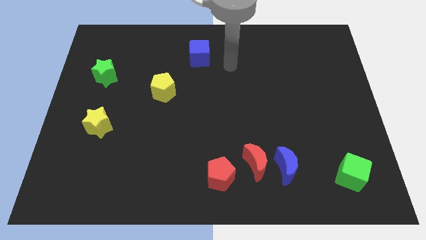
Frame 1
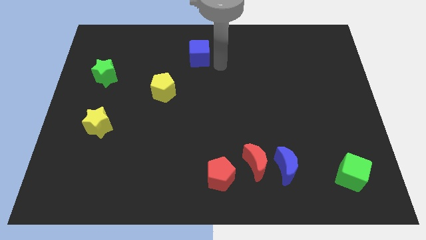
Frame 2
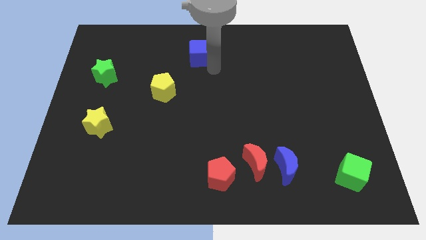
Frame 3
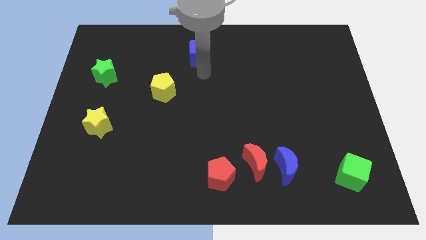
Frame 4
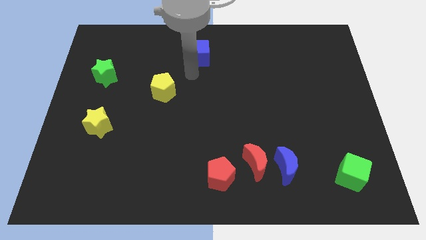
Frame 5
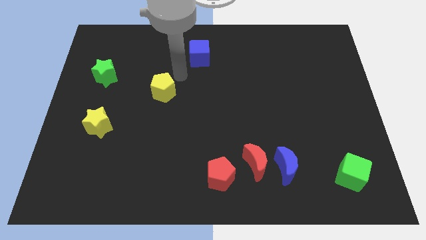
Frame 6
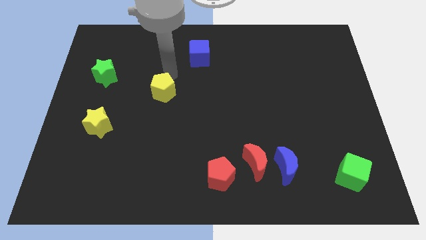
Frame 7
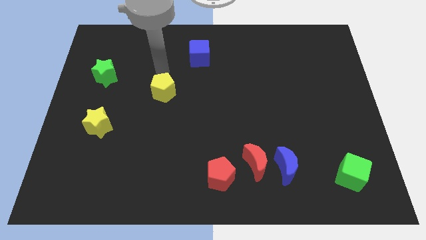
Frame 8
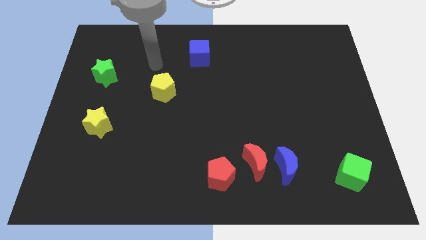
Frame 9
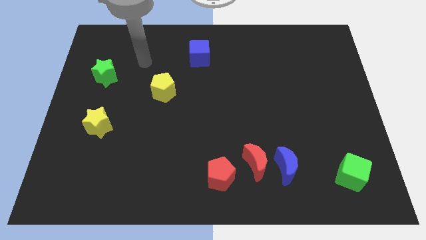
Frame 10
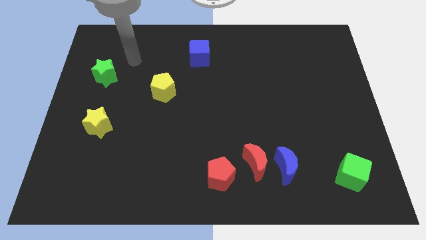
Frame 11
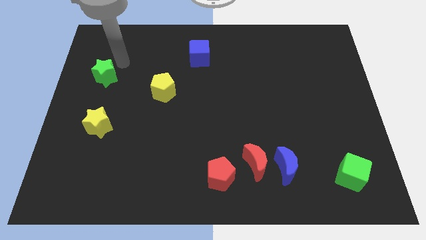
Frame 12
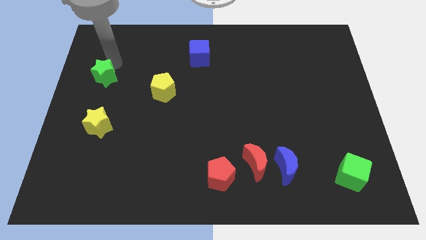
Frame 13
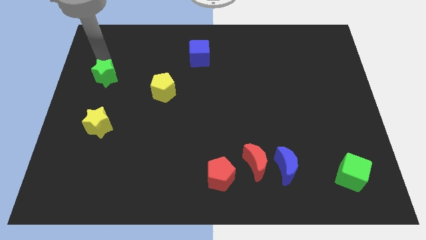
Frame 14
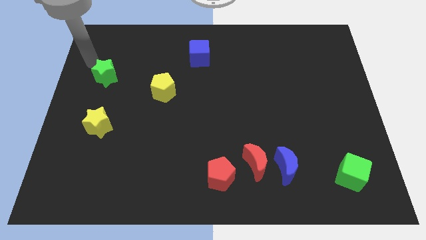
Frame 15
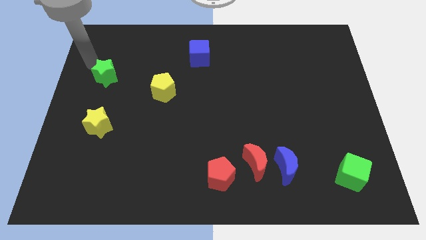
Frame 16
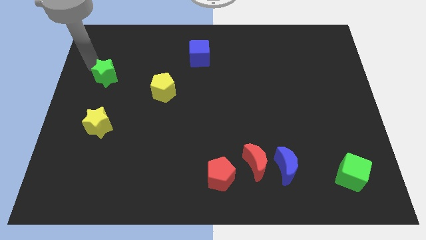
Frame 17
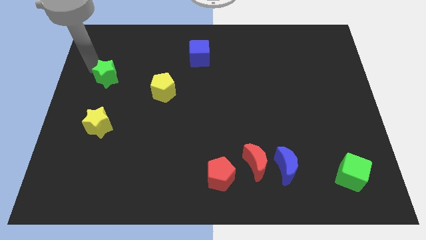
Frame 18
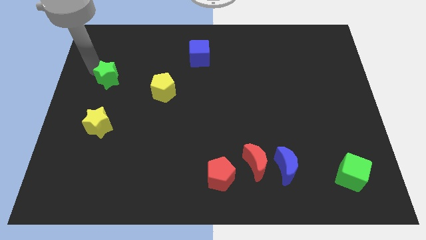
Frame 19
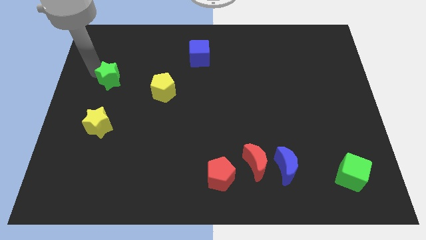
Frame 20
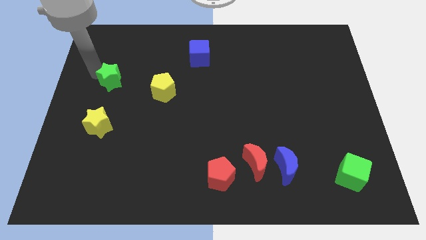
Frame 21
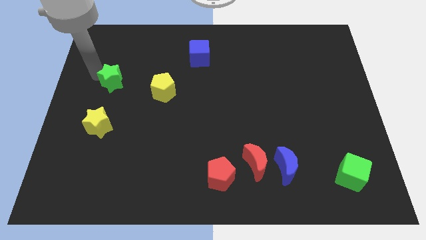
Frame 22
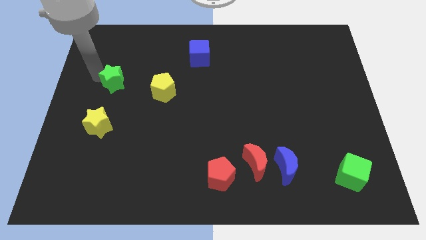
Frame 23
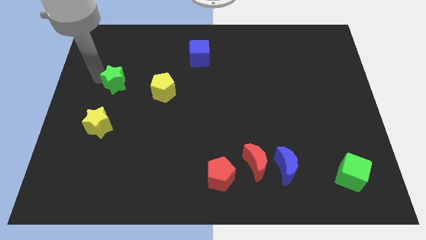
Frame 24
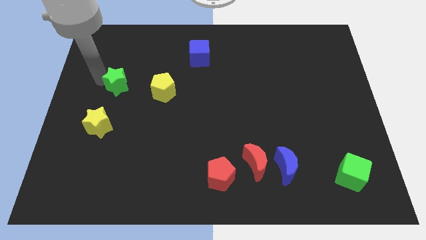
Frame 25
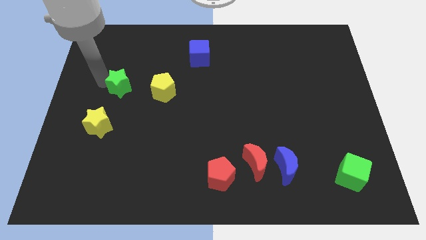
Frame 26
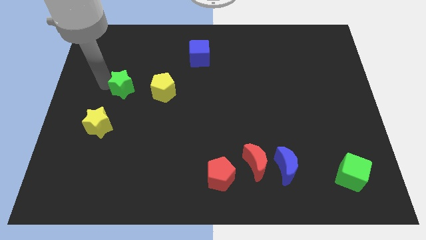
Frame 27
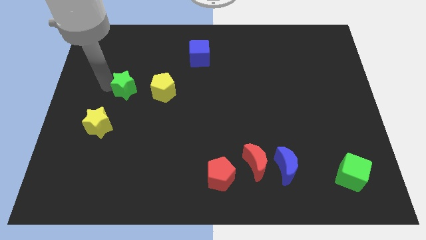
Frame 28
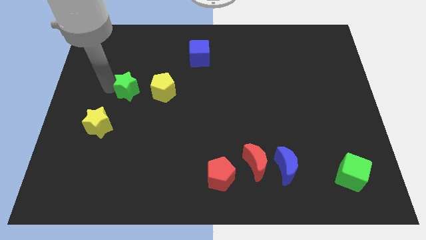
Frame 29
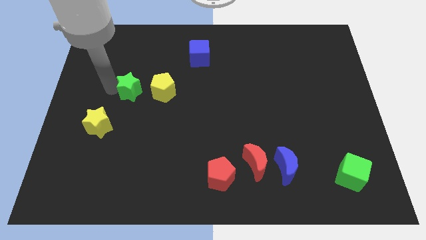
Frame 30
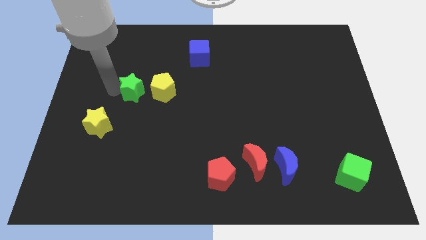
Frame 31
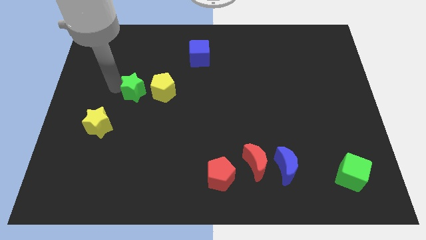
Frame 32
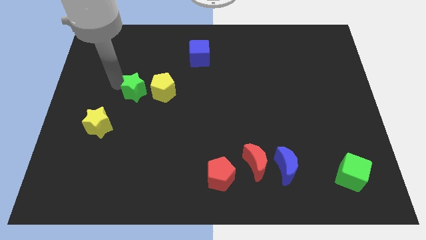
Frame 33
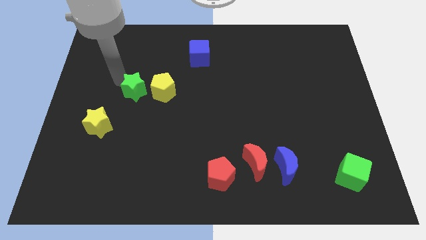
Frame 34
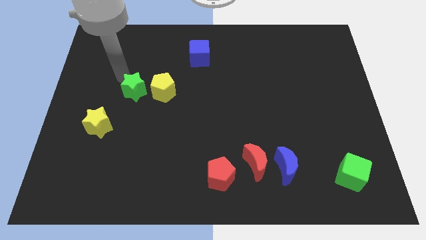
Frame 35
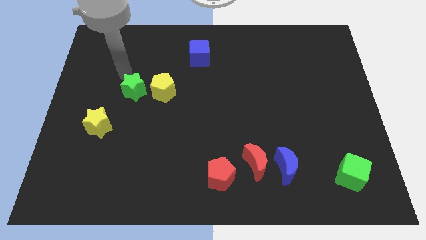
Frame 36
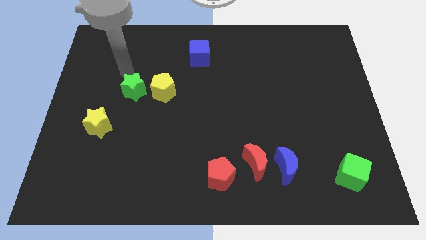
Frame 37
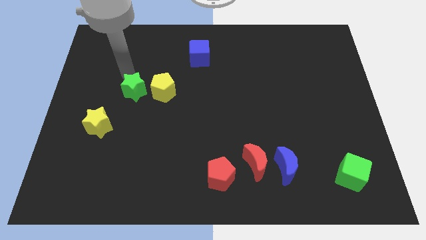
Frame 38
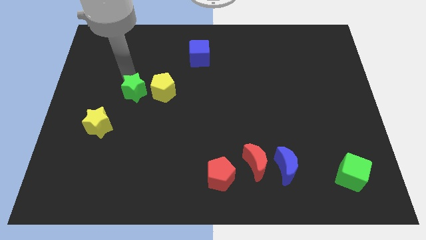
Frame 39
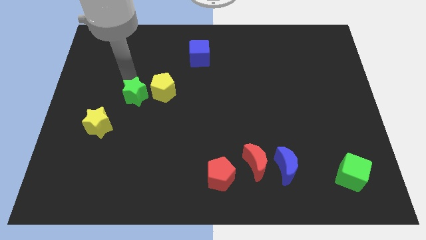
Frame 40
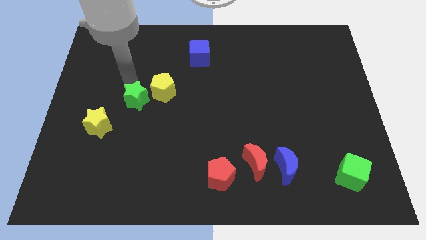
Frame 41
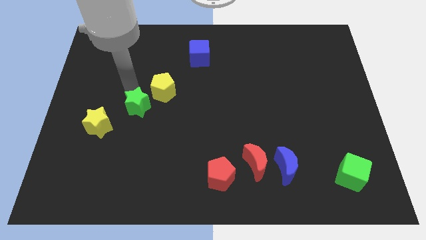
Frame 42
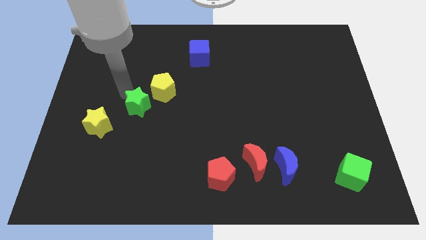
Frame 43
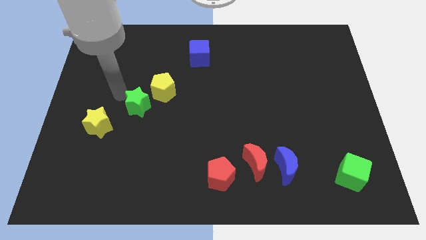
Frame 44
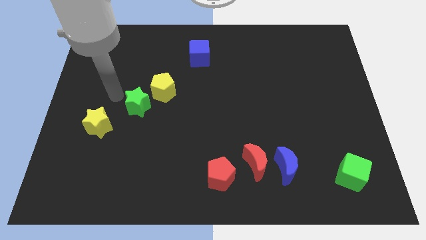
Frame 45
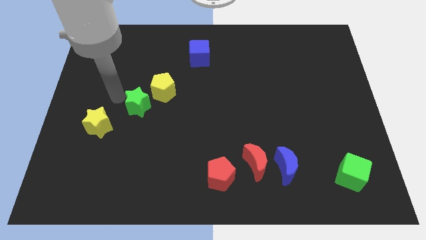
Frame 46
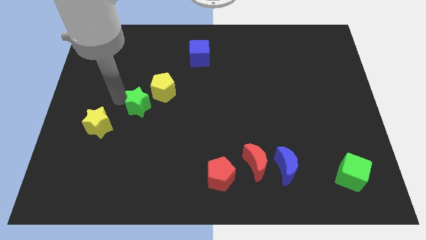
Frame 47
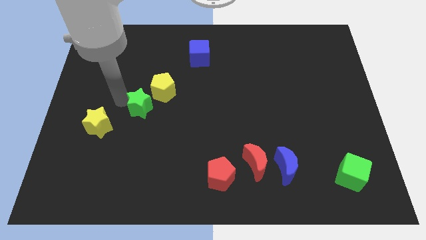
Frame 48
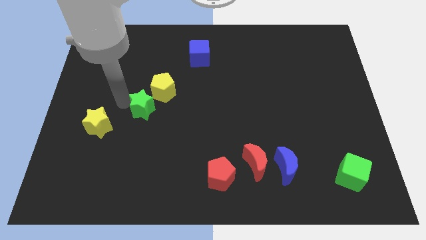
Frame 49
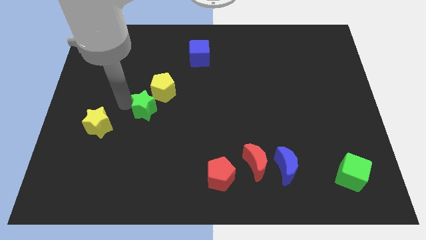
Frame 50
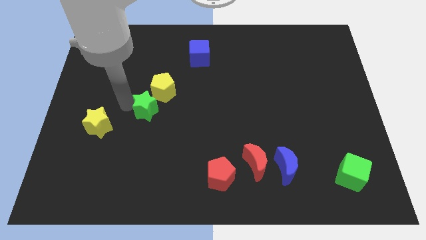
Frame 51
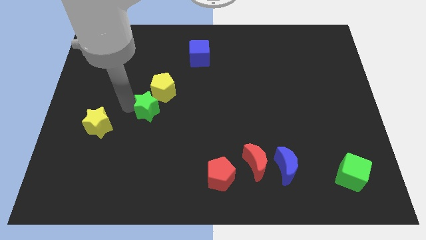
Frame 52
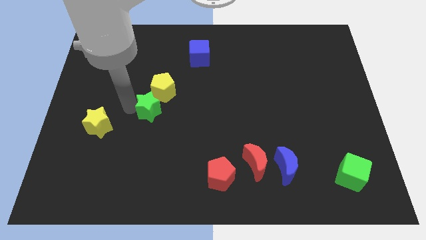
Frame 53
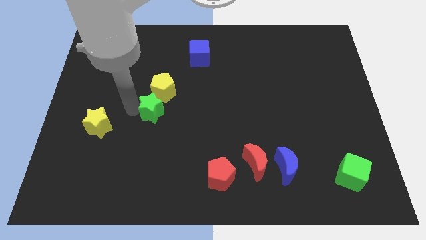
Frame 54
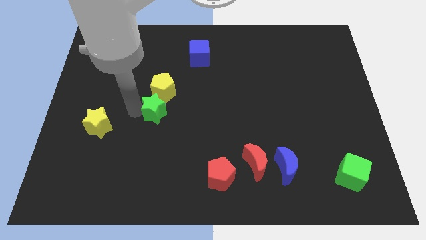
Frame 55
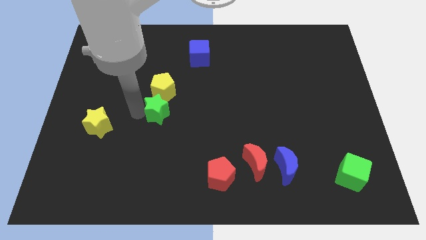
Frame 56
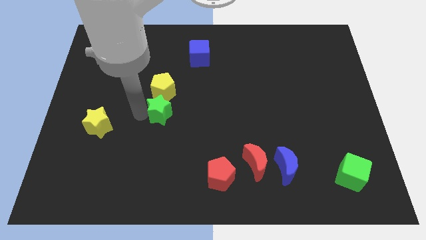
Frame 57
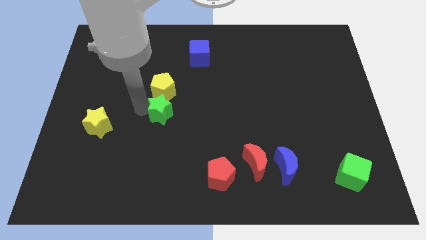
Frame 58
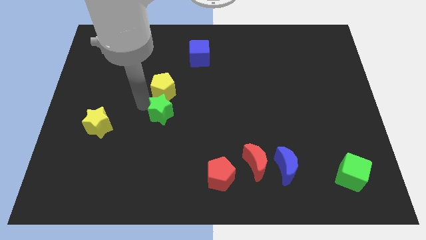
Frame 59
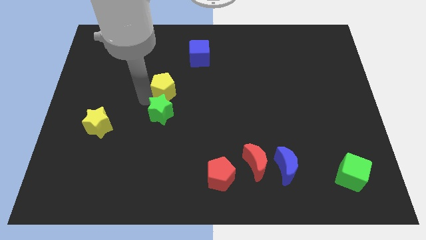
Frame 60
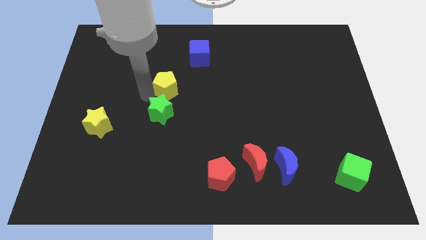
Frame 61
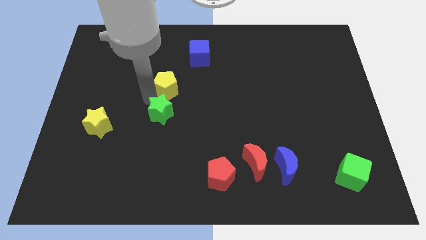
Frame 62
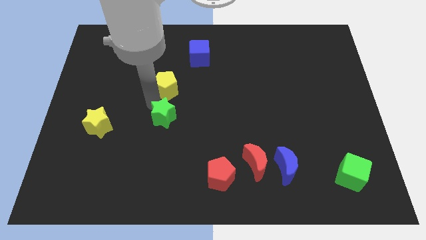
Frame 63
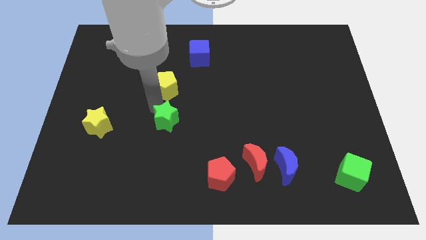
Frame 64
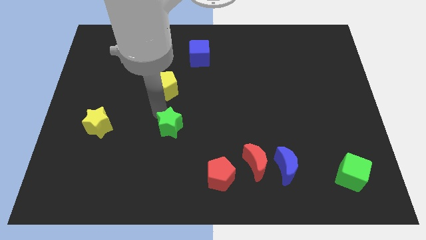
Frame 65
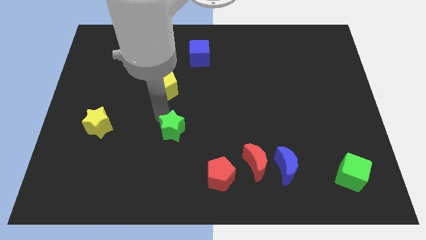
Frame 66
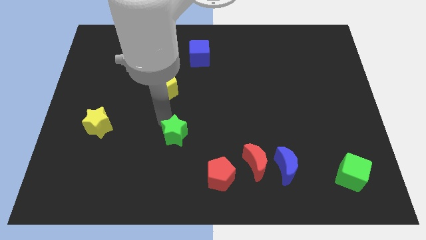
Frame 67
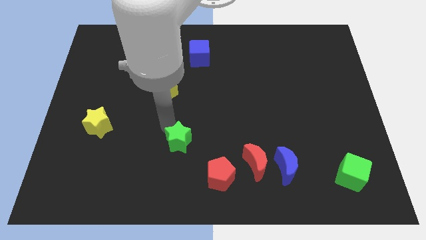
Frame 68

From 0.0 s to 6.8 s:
put the green star to the top left of the red pentagon
